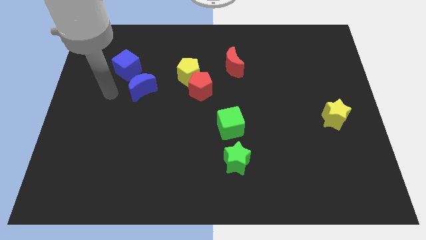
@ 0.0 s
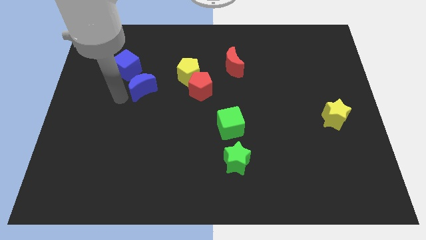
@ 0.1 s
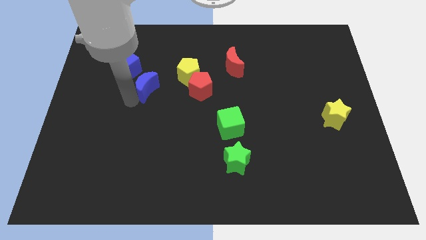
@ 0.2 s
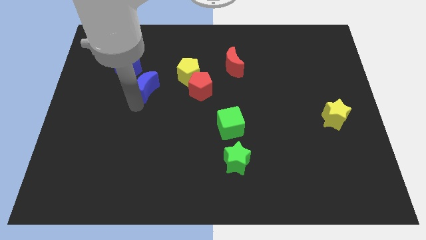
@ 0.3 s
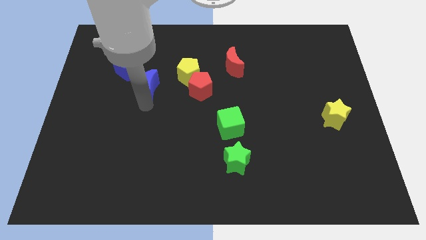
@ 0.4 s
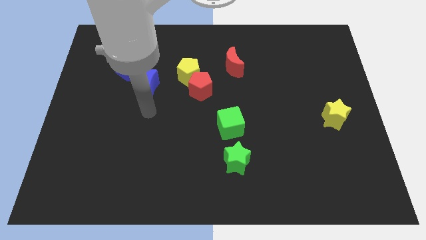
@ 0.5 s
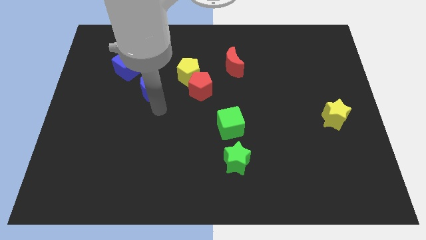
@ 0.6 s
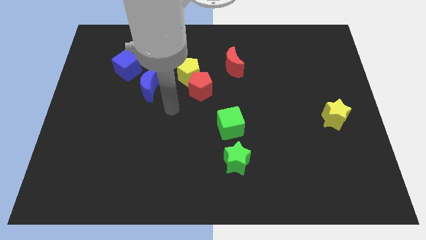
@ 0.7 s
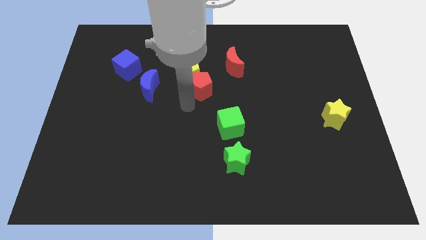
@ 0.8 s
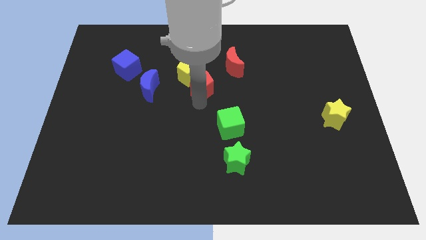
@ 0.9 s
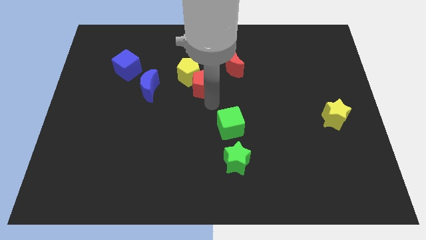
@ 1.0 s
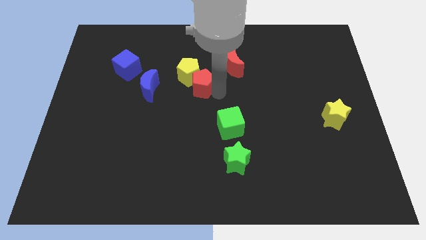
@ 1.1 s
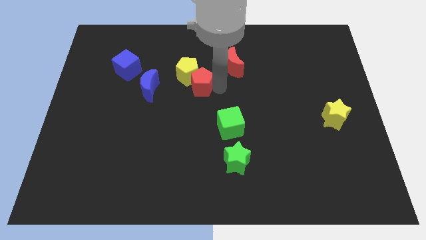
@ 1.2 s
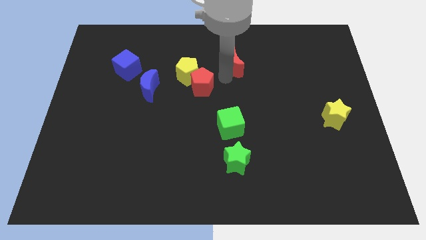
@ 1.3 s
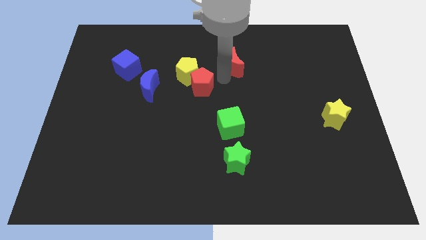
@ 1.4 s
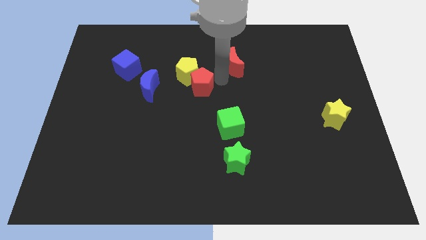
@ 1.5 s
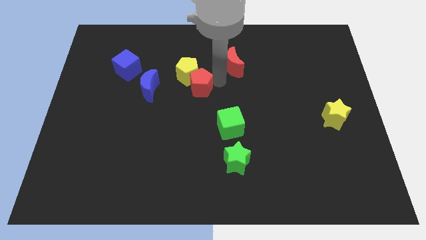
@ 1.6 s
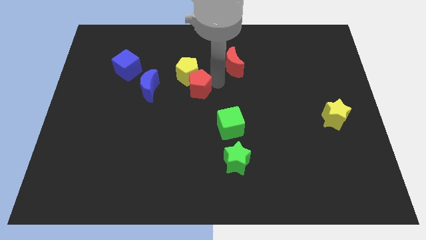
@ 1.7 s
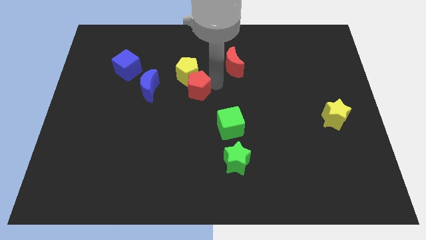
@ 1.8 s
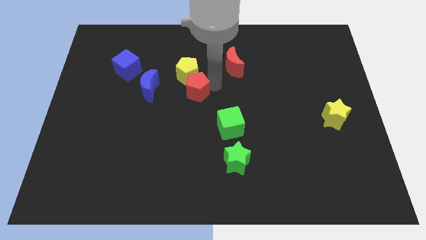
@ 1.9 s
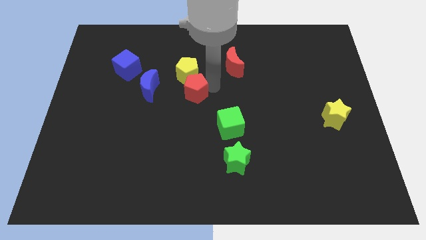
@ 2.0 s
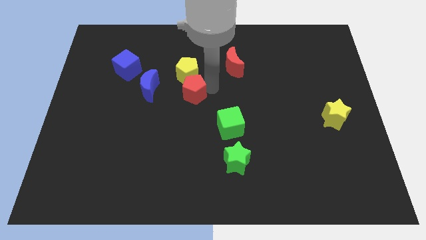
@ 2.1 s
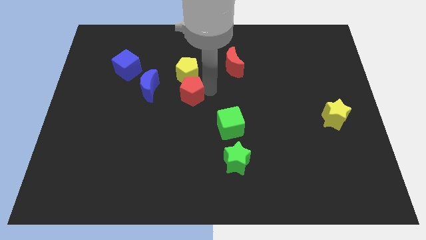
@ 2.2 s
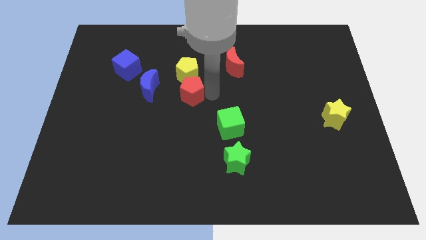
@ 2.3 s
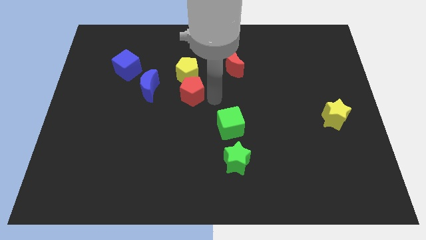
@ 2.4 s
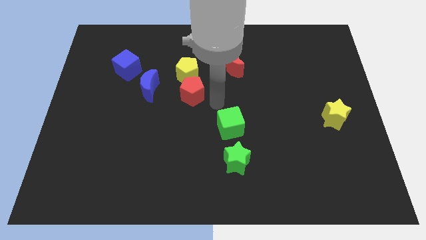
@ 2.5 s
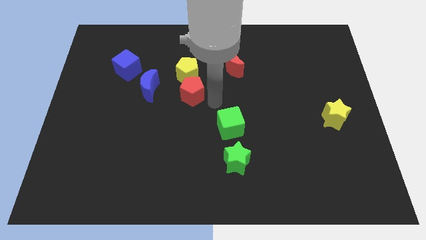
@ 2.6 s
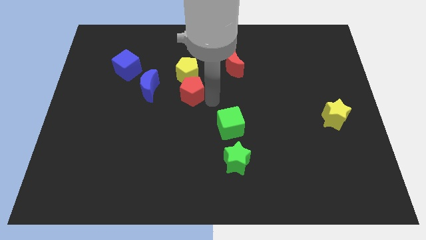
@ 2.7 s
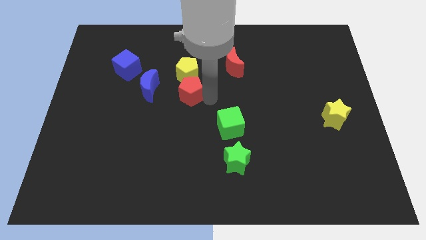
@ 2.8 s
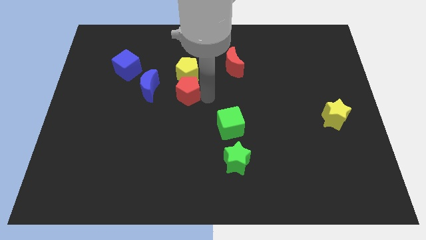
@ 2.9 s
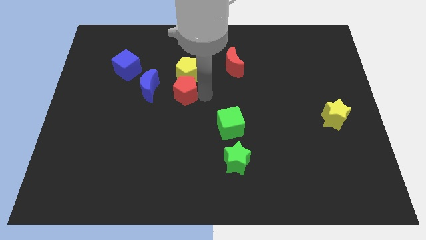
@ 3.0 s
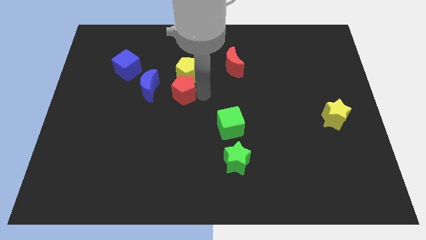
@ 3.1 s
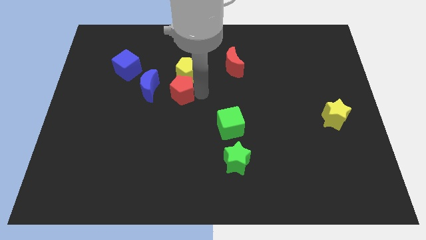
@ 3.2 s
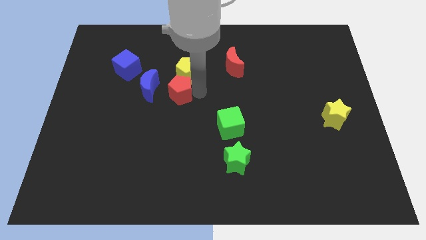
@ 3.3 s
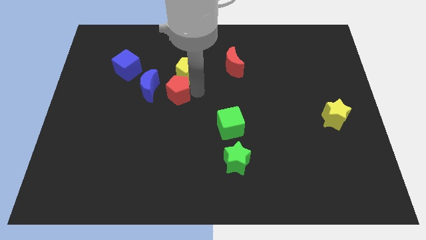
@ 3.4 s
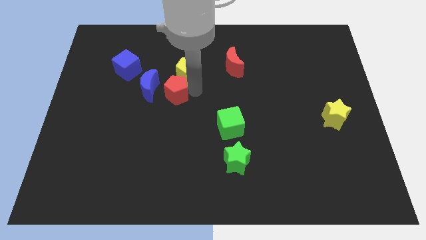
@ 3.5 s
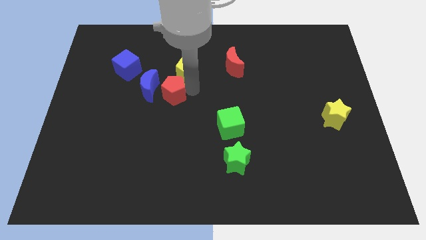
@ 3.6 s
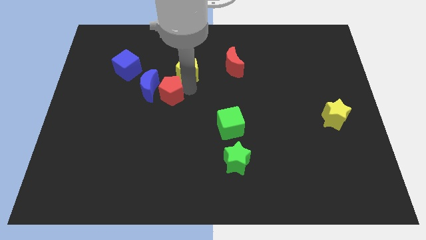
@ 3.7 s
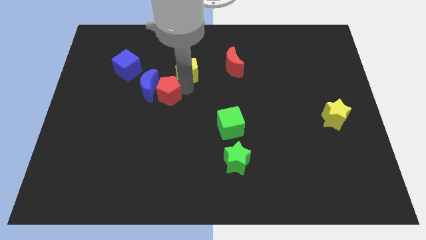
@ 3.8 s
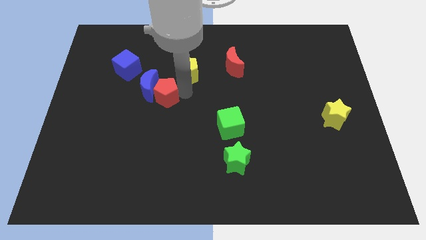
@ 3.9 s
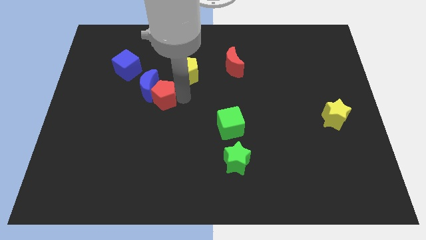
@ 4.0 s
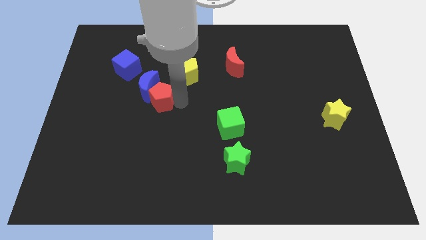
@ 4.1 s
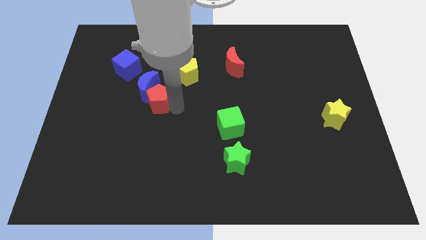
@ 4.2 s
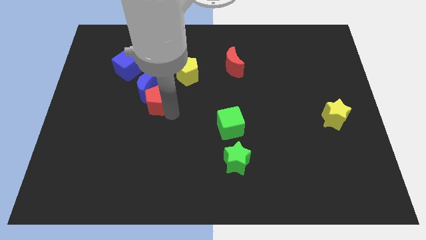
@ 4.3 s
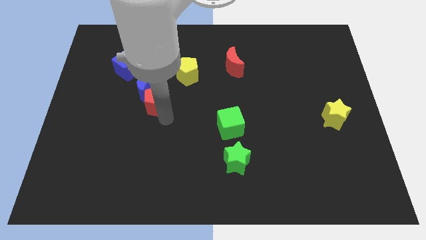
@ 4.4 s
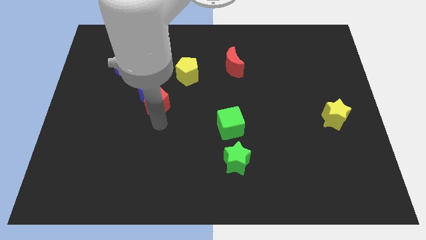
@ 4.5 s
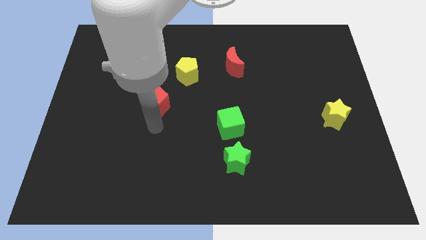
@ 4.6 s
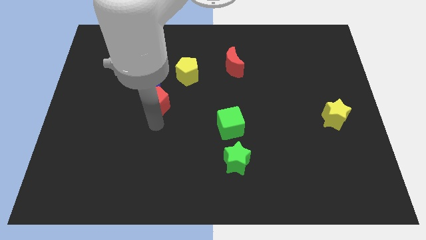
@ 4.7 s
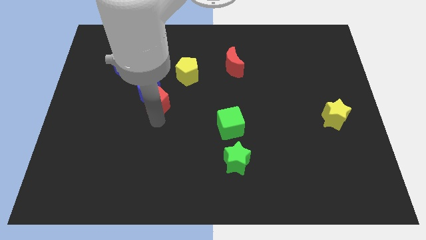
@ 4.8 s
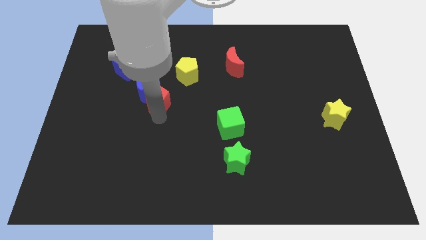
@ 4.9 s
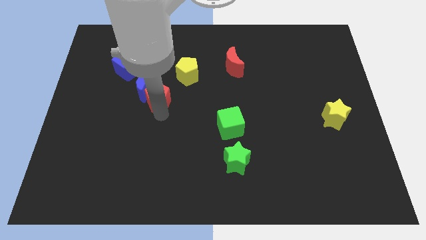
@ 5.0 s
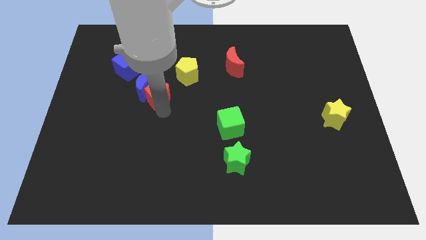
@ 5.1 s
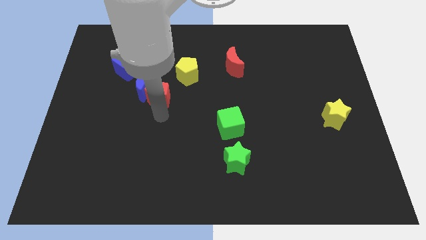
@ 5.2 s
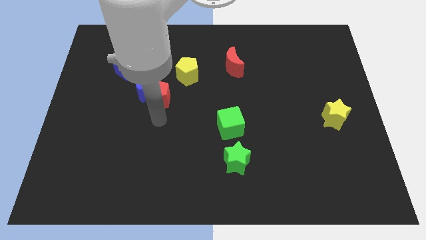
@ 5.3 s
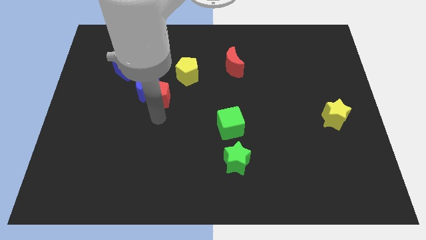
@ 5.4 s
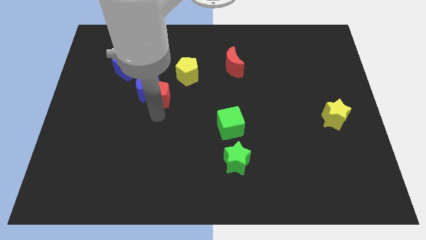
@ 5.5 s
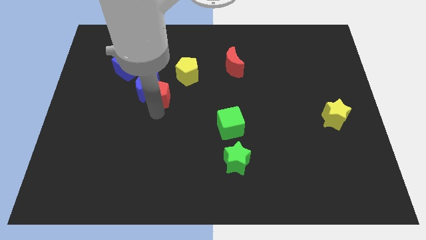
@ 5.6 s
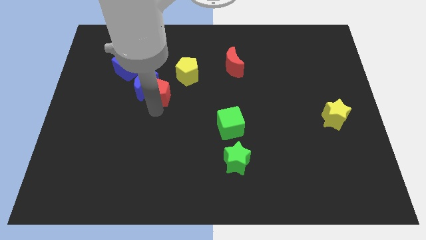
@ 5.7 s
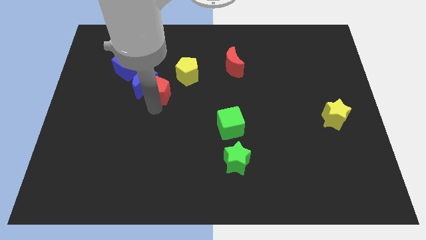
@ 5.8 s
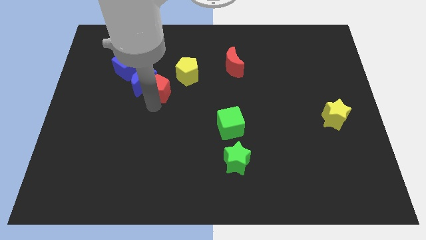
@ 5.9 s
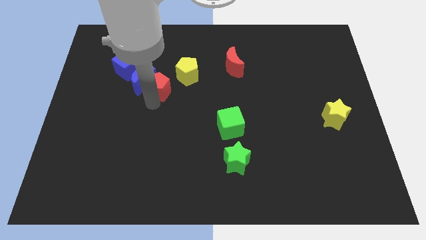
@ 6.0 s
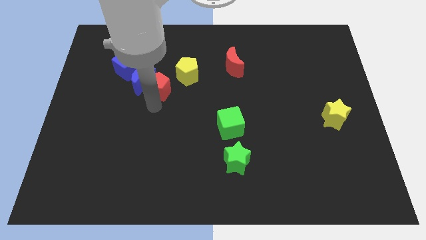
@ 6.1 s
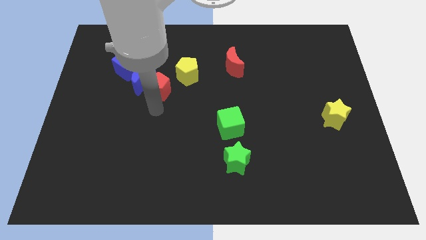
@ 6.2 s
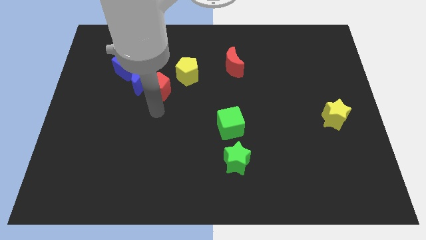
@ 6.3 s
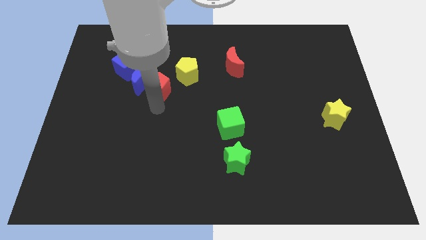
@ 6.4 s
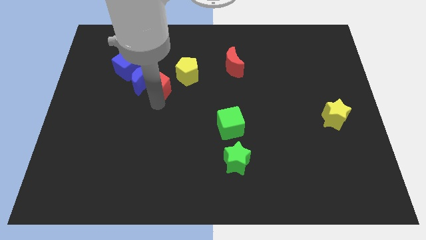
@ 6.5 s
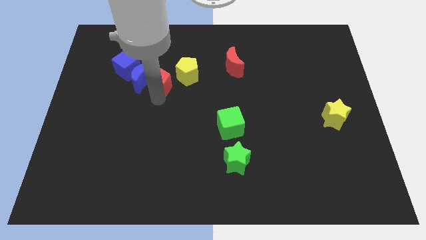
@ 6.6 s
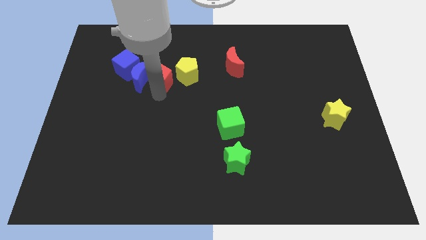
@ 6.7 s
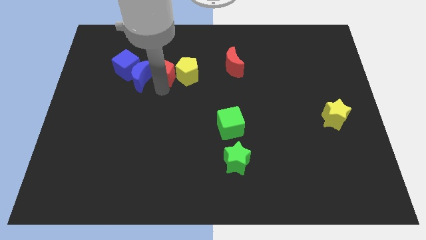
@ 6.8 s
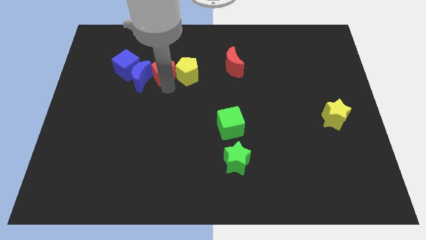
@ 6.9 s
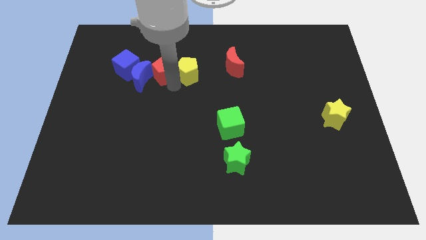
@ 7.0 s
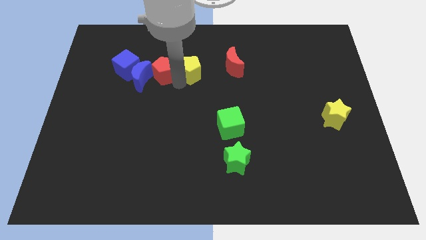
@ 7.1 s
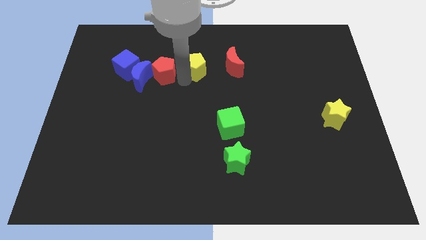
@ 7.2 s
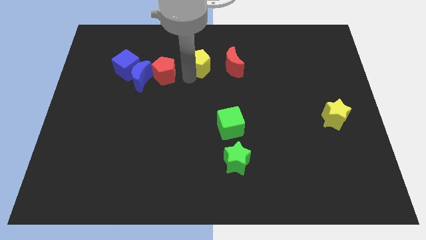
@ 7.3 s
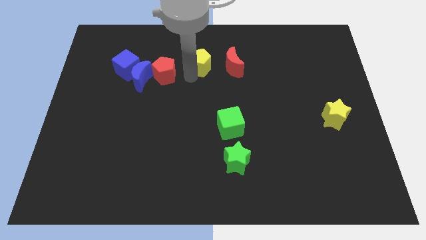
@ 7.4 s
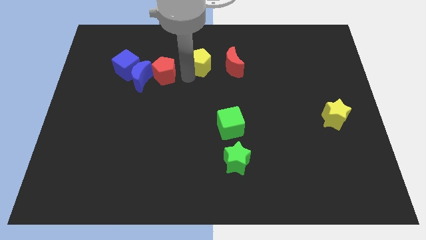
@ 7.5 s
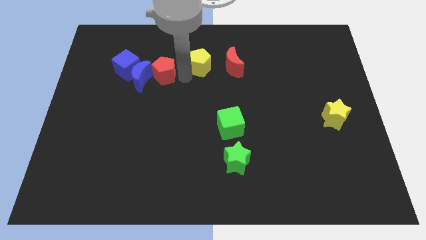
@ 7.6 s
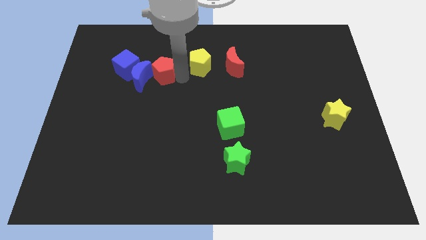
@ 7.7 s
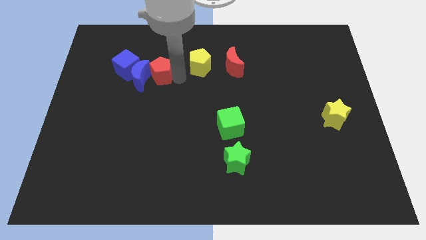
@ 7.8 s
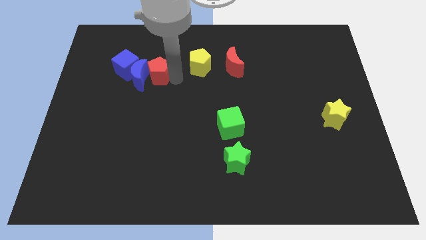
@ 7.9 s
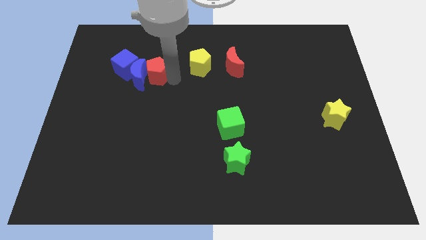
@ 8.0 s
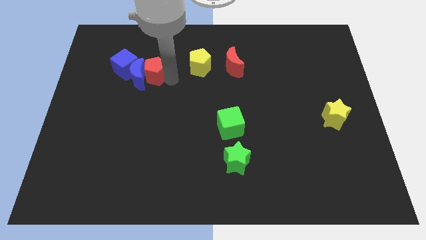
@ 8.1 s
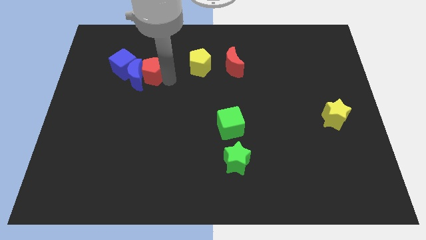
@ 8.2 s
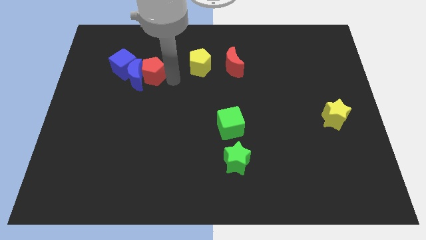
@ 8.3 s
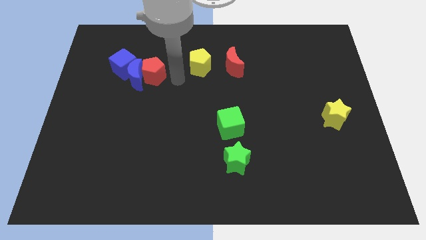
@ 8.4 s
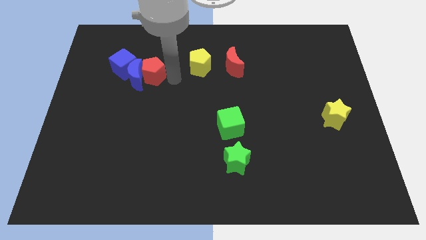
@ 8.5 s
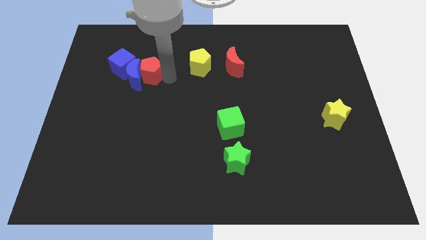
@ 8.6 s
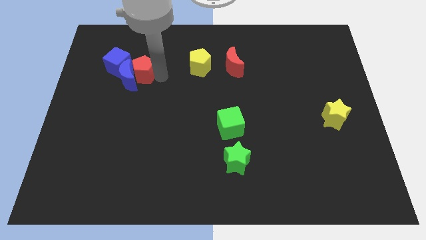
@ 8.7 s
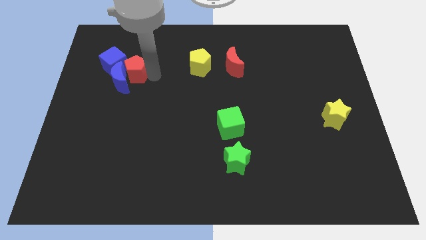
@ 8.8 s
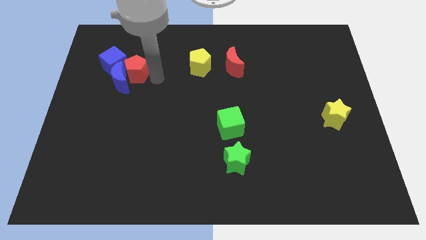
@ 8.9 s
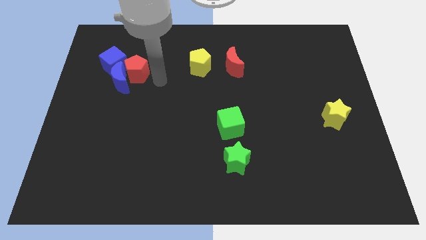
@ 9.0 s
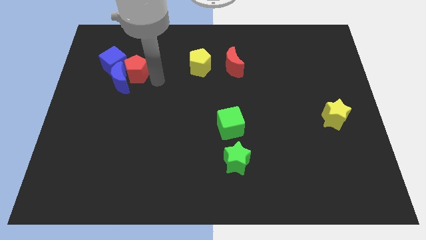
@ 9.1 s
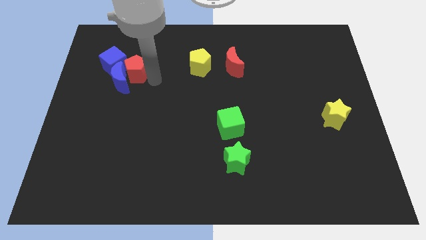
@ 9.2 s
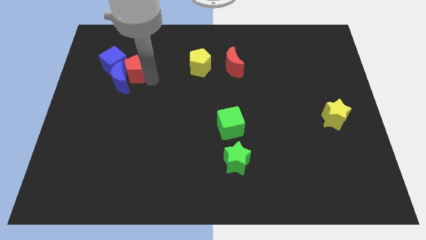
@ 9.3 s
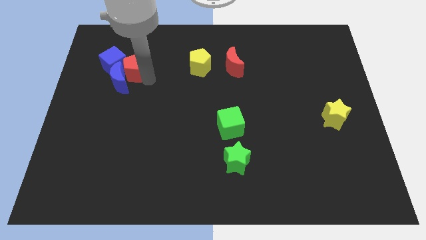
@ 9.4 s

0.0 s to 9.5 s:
push the red pentagon towards the blue cube
